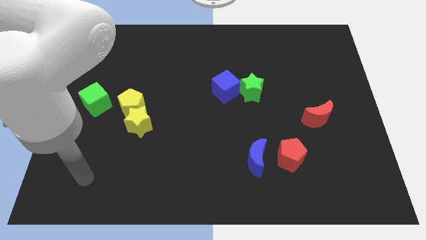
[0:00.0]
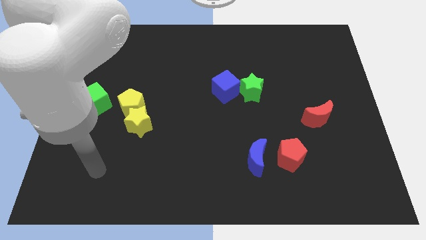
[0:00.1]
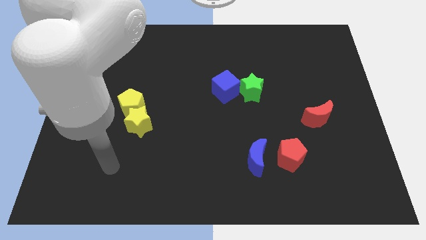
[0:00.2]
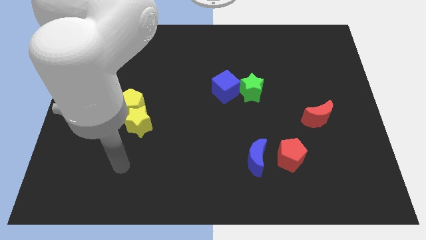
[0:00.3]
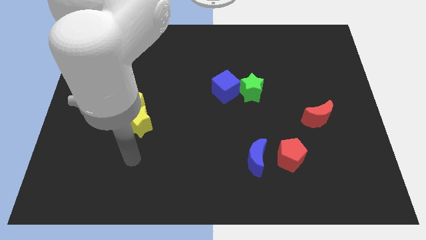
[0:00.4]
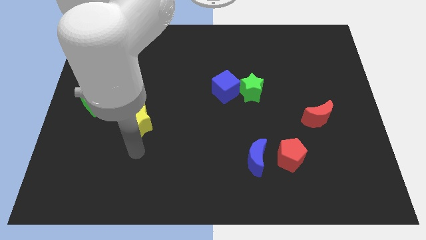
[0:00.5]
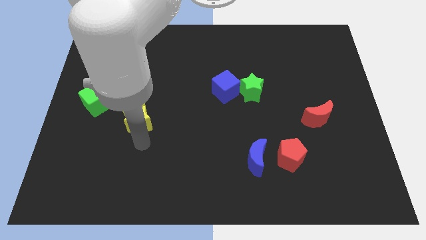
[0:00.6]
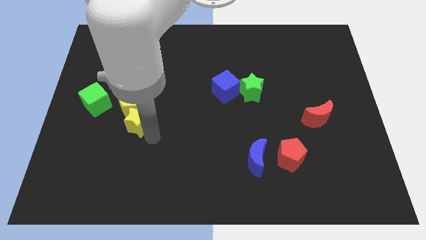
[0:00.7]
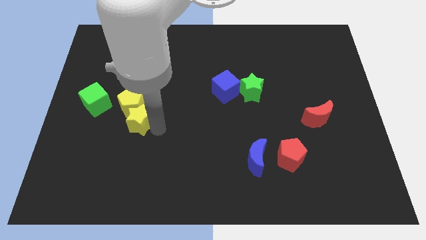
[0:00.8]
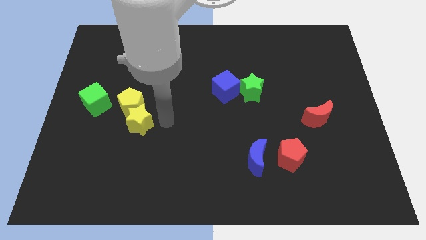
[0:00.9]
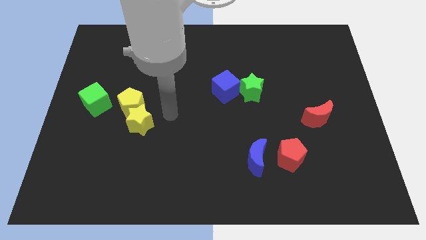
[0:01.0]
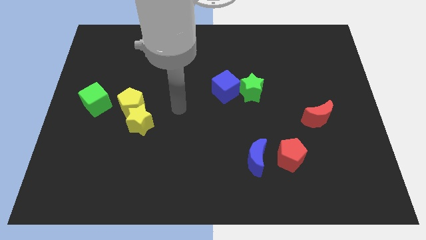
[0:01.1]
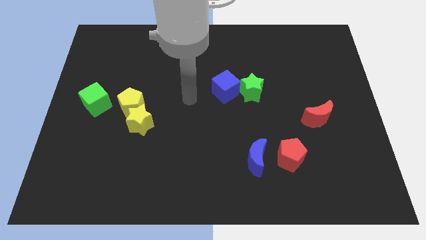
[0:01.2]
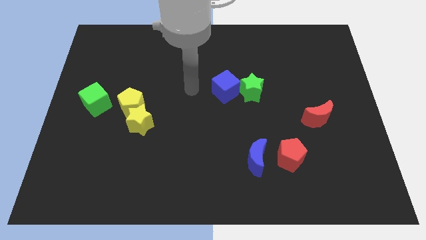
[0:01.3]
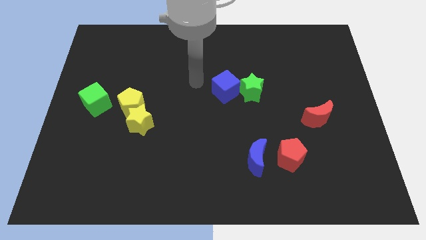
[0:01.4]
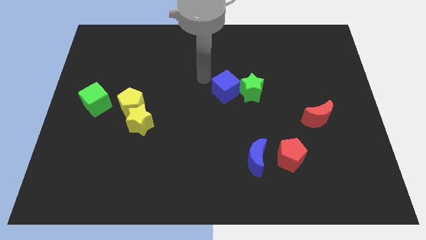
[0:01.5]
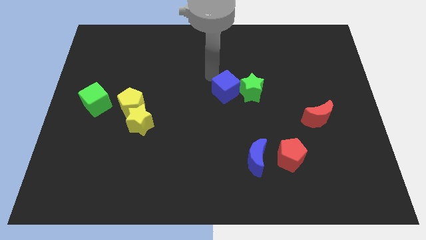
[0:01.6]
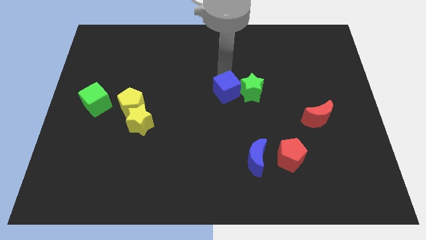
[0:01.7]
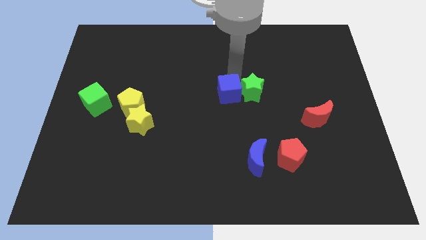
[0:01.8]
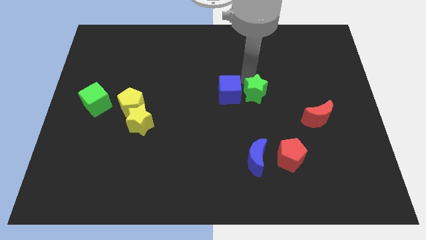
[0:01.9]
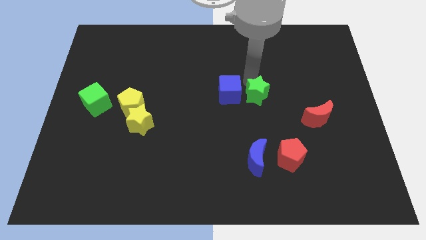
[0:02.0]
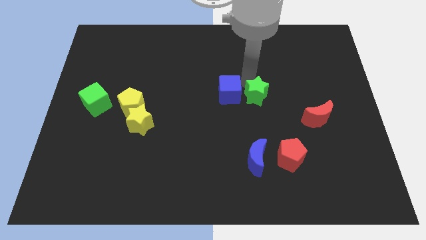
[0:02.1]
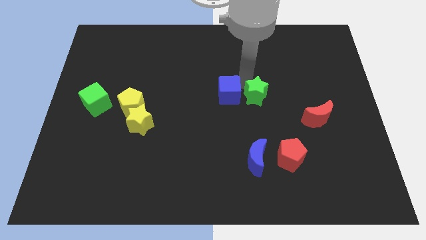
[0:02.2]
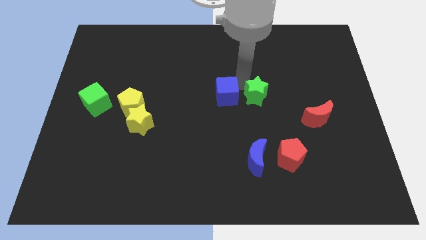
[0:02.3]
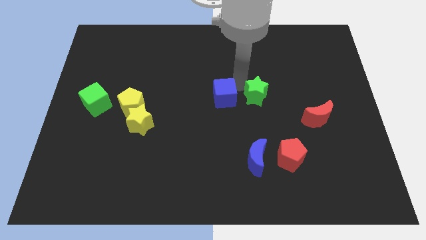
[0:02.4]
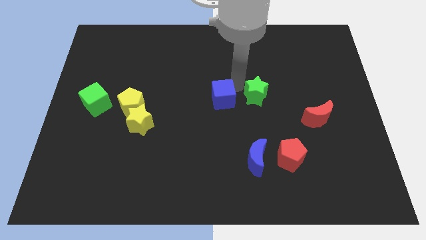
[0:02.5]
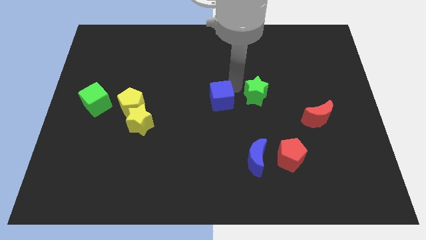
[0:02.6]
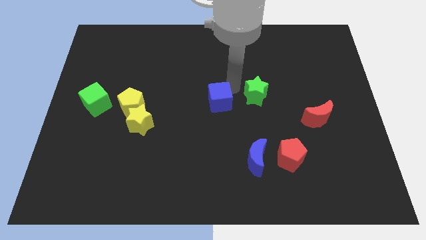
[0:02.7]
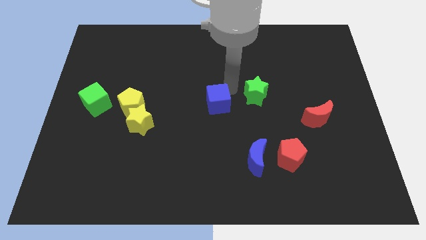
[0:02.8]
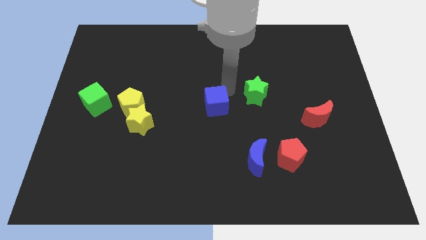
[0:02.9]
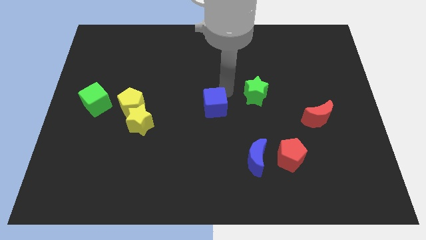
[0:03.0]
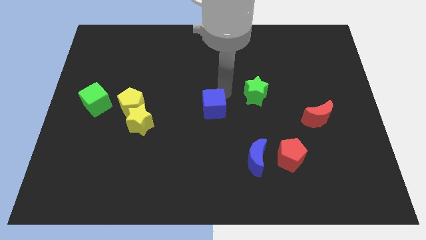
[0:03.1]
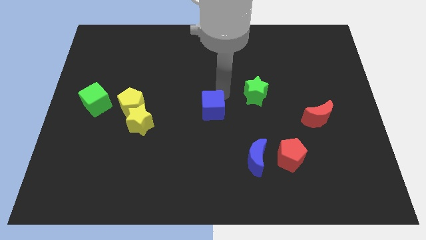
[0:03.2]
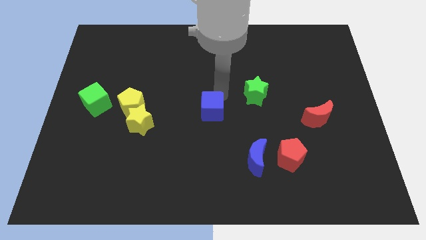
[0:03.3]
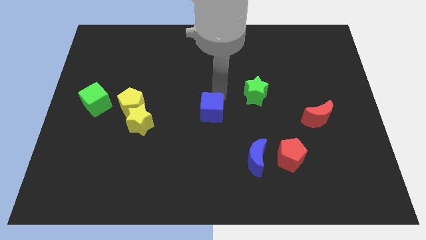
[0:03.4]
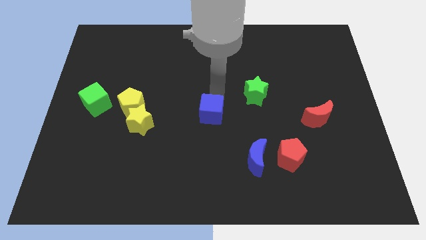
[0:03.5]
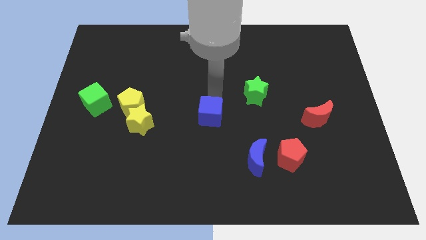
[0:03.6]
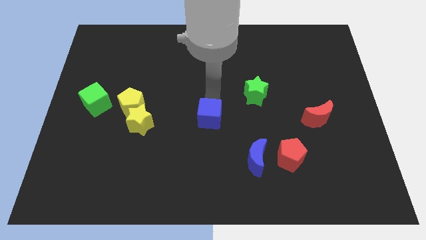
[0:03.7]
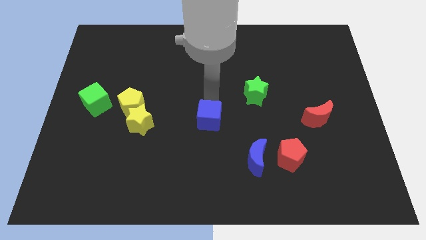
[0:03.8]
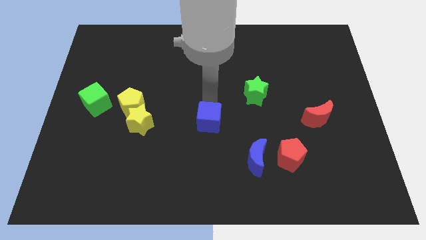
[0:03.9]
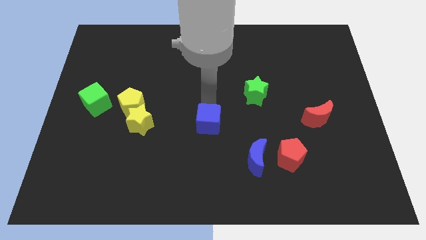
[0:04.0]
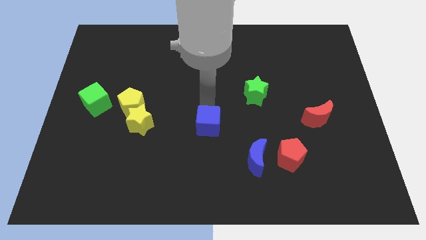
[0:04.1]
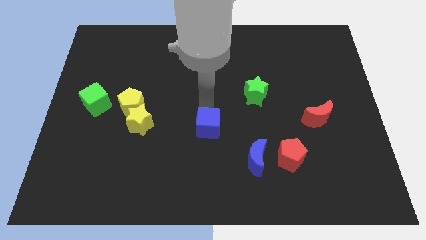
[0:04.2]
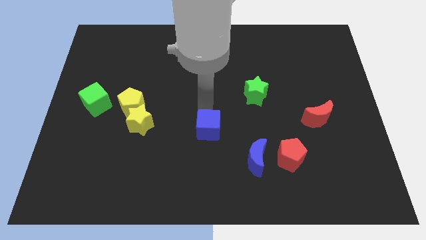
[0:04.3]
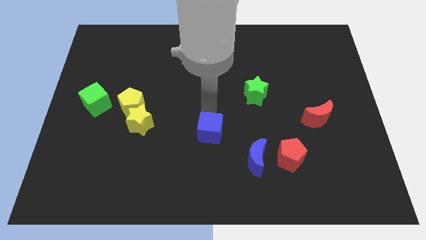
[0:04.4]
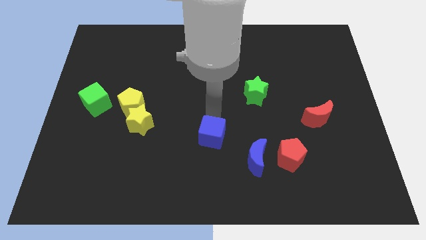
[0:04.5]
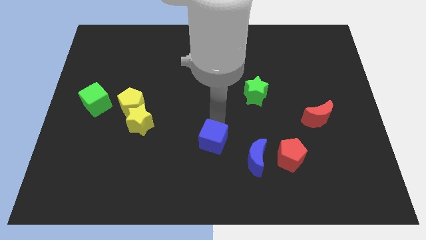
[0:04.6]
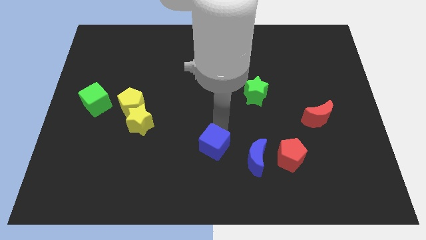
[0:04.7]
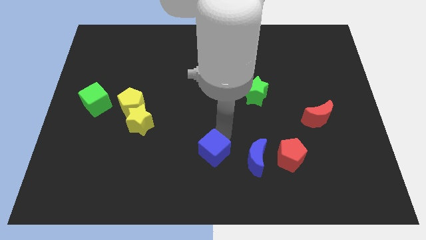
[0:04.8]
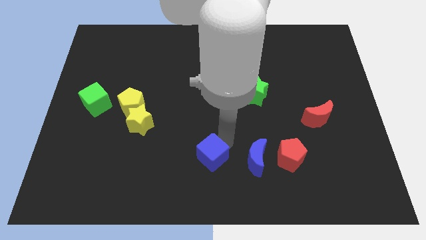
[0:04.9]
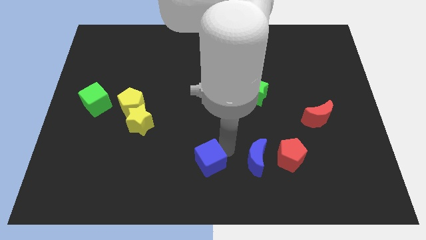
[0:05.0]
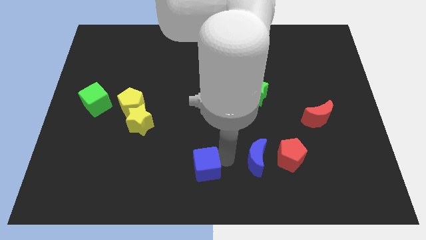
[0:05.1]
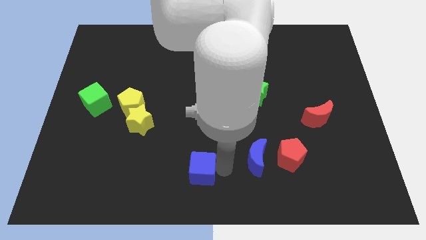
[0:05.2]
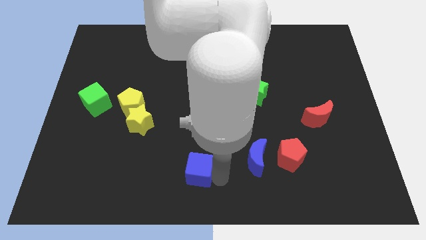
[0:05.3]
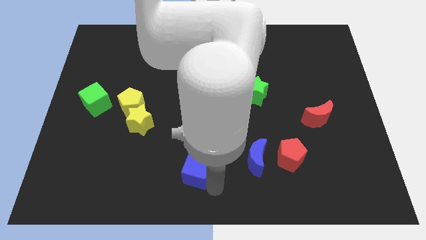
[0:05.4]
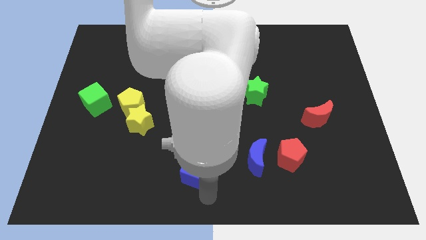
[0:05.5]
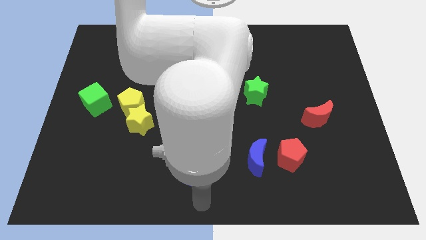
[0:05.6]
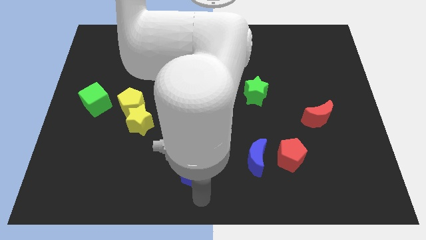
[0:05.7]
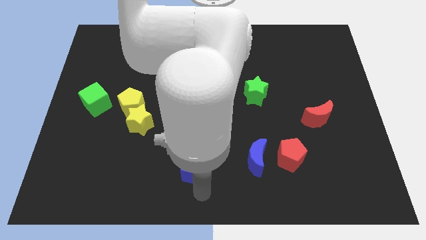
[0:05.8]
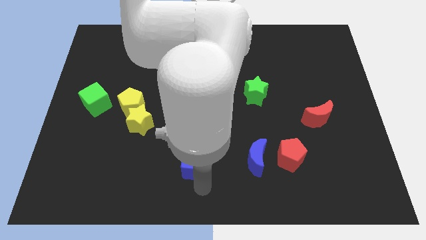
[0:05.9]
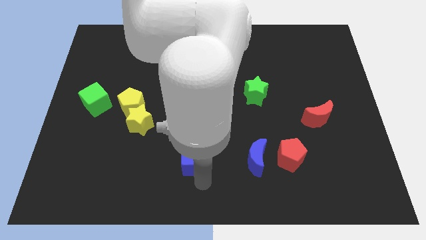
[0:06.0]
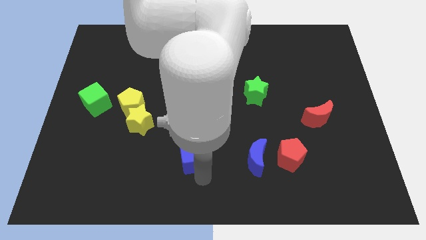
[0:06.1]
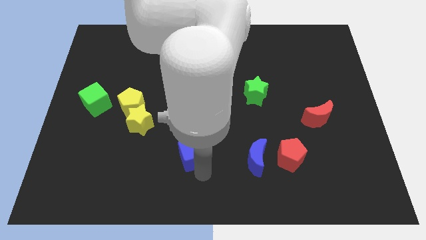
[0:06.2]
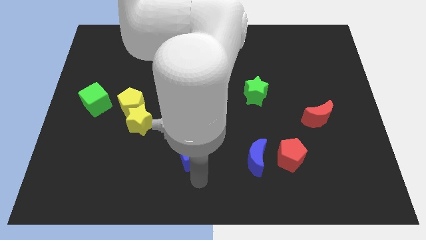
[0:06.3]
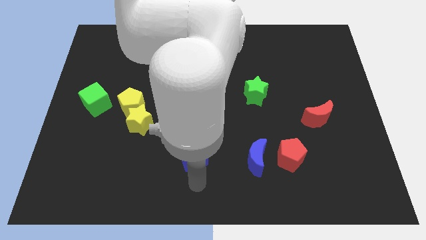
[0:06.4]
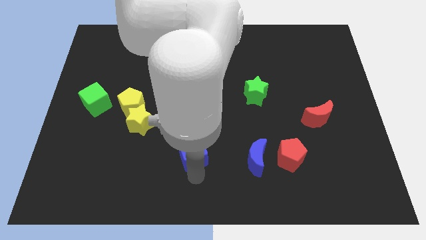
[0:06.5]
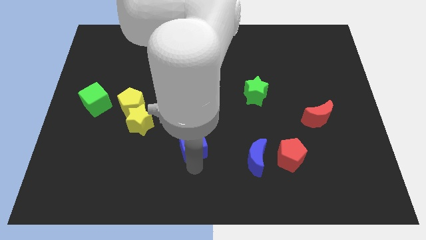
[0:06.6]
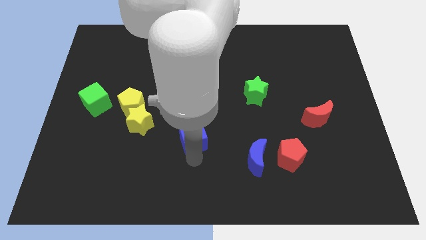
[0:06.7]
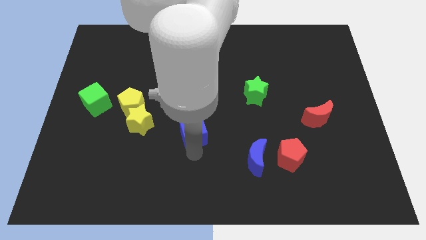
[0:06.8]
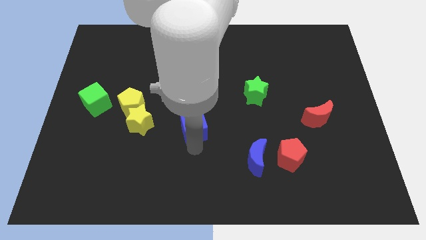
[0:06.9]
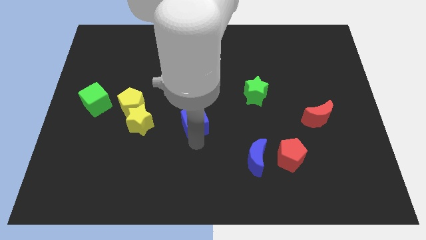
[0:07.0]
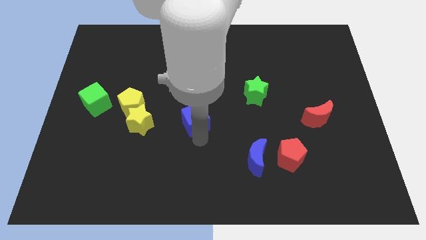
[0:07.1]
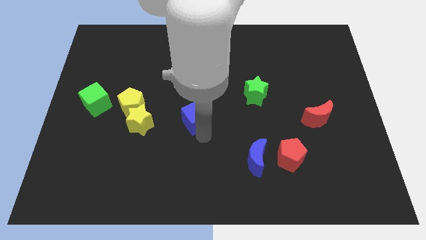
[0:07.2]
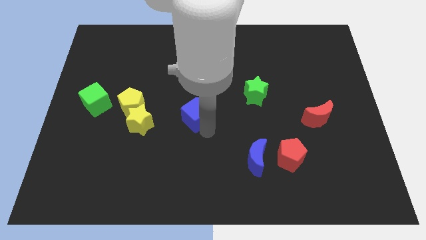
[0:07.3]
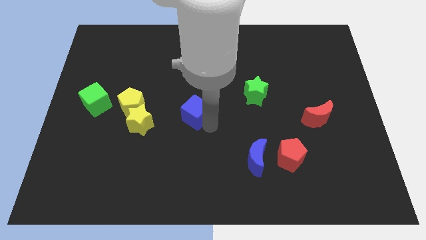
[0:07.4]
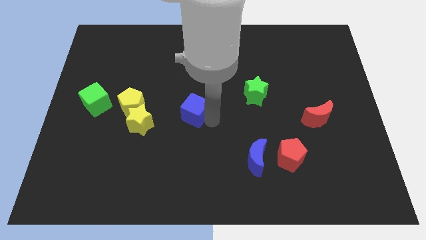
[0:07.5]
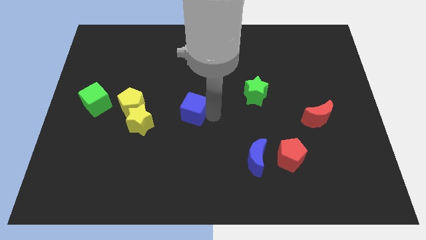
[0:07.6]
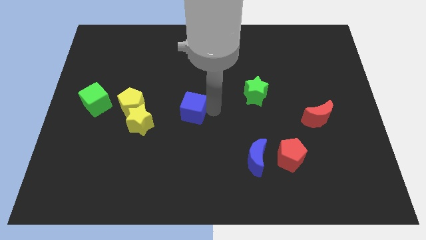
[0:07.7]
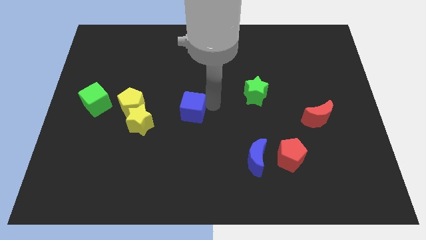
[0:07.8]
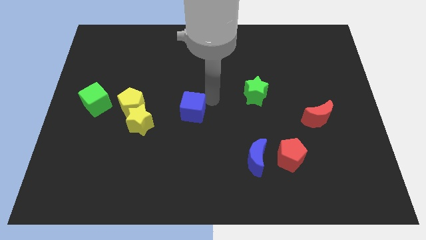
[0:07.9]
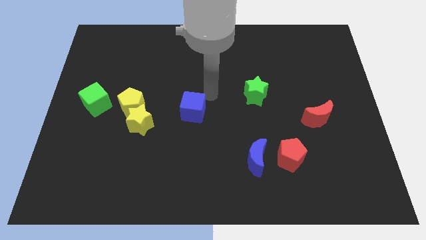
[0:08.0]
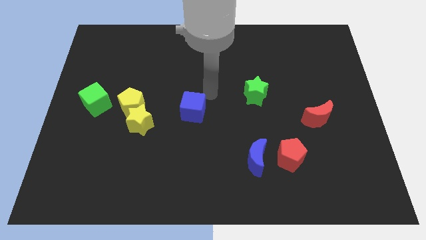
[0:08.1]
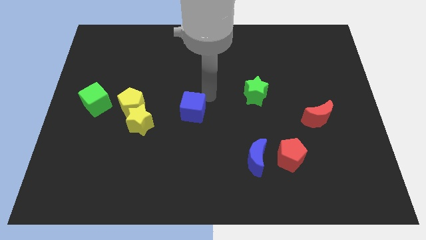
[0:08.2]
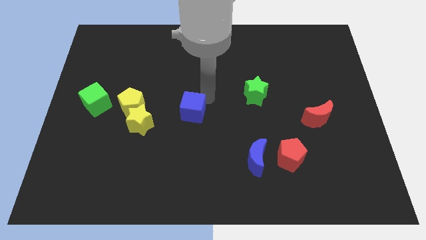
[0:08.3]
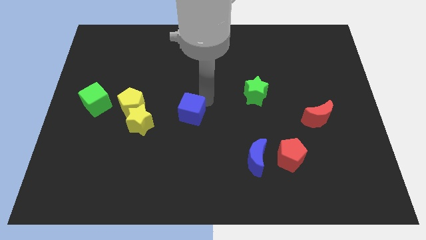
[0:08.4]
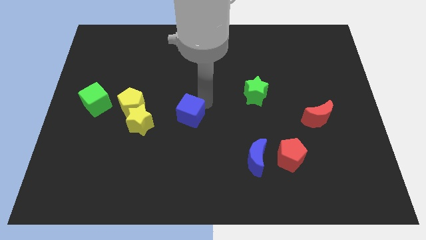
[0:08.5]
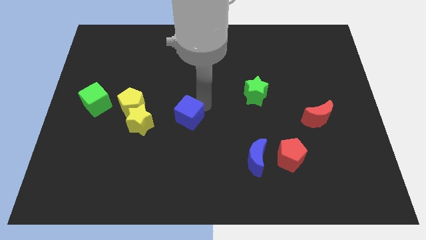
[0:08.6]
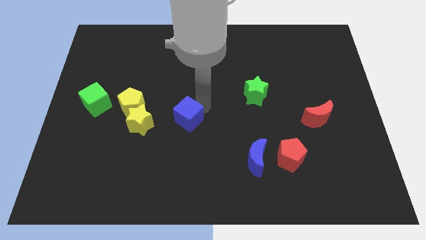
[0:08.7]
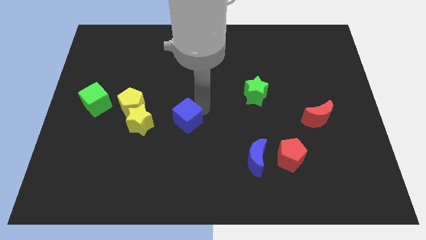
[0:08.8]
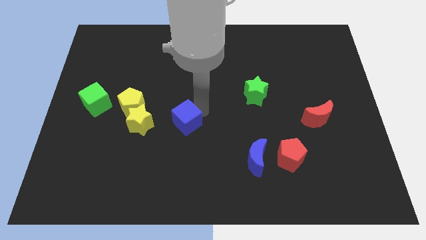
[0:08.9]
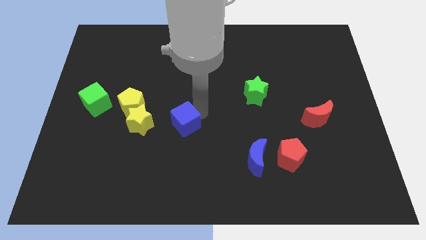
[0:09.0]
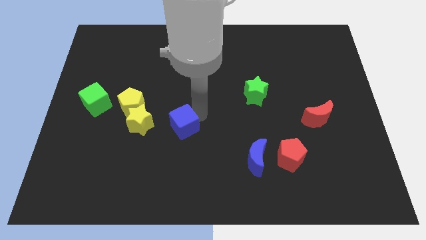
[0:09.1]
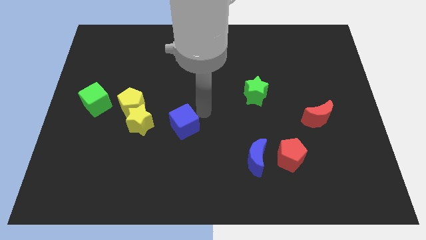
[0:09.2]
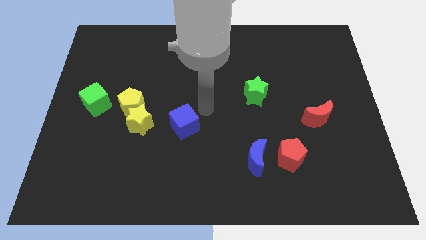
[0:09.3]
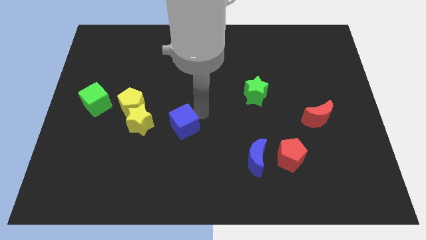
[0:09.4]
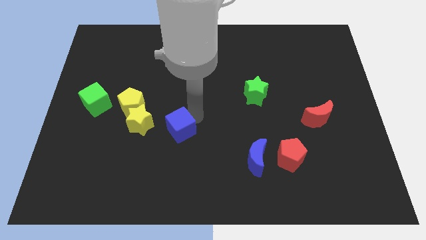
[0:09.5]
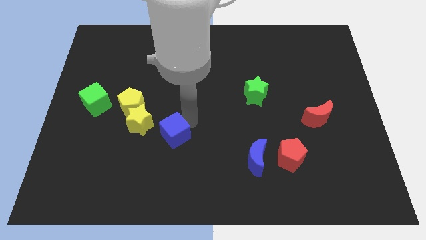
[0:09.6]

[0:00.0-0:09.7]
slide the blue cube to the bottom right of the yellow star
